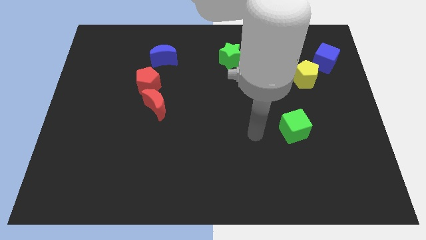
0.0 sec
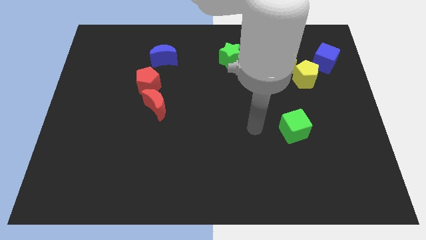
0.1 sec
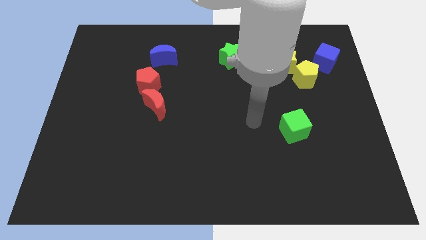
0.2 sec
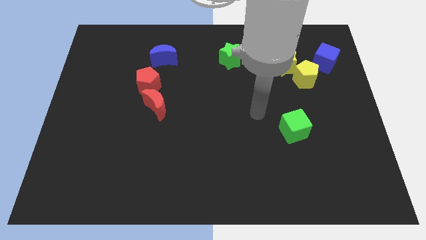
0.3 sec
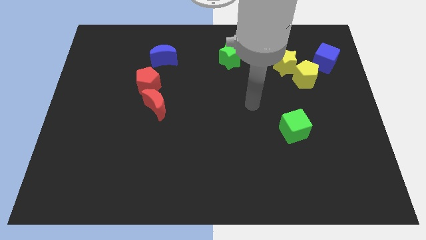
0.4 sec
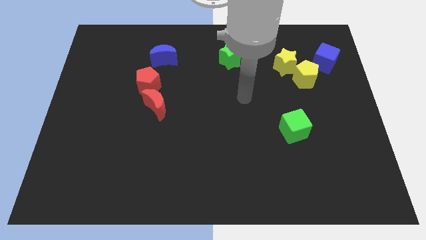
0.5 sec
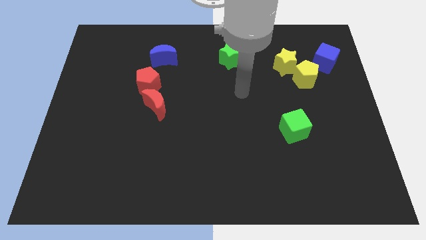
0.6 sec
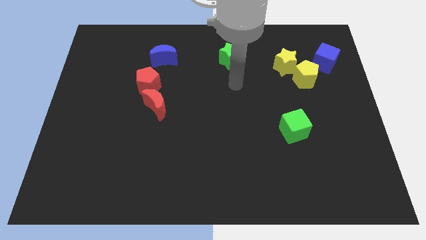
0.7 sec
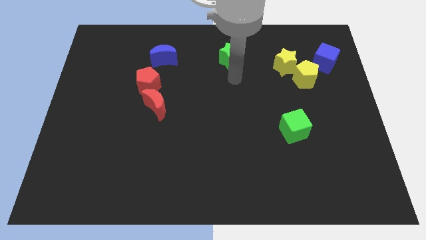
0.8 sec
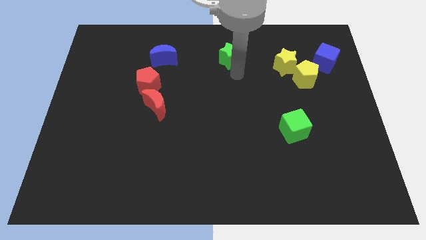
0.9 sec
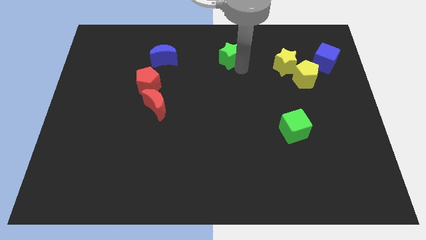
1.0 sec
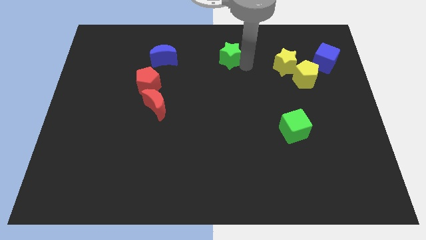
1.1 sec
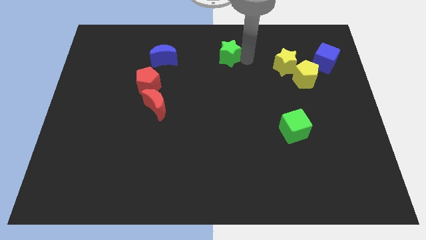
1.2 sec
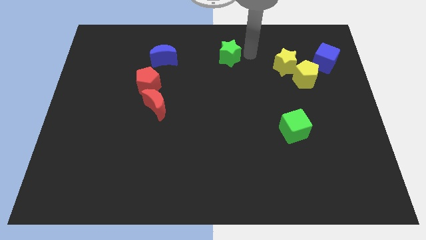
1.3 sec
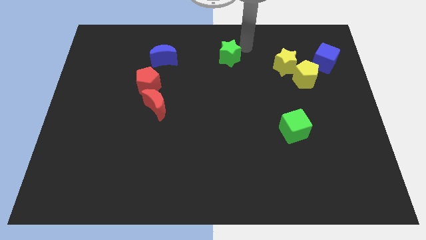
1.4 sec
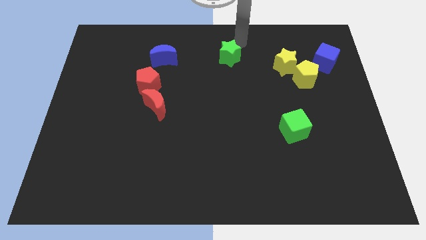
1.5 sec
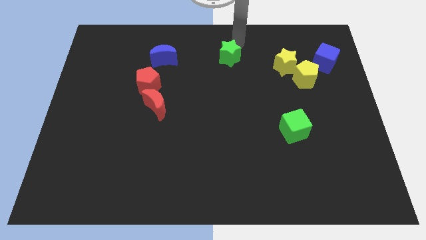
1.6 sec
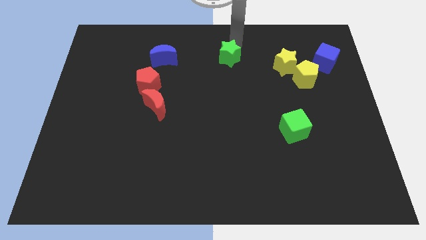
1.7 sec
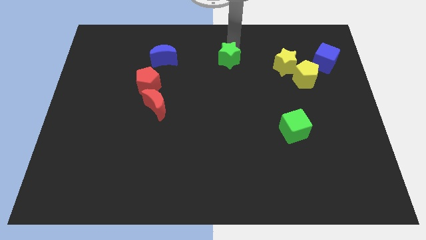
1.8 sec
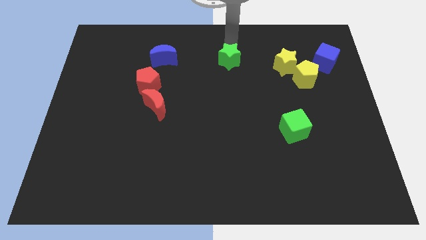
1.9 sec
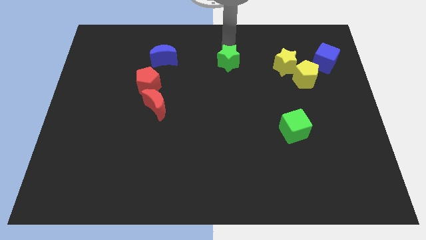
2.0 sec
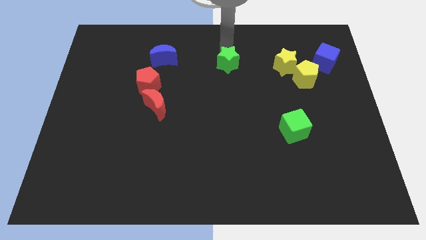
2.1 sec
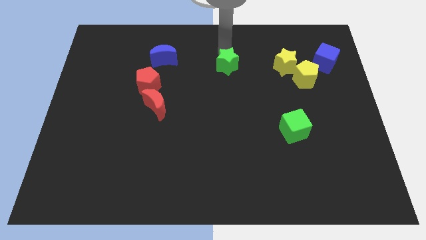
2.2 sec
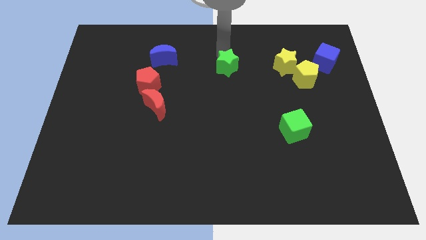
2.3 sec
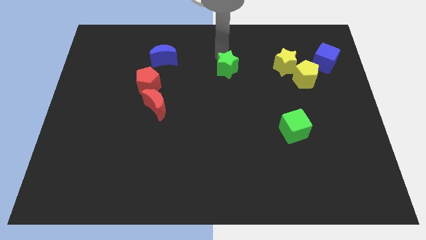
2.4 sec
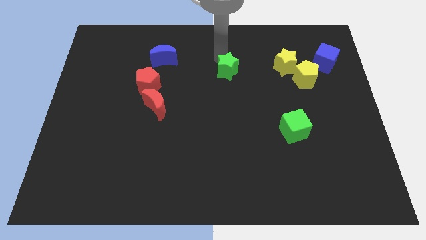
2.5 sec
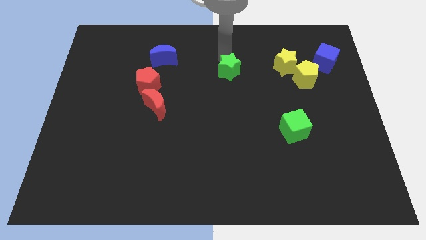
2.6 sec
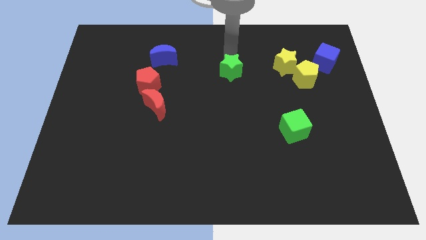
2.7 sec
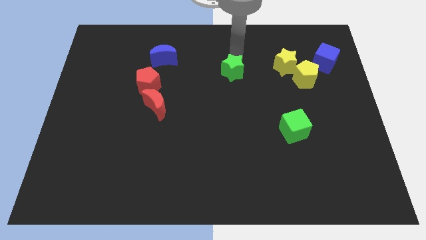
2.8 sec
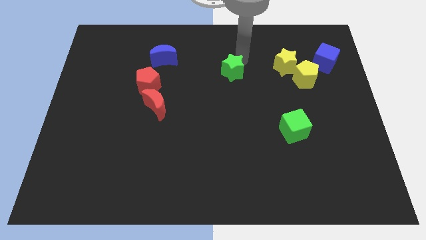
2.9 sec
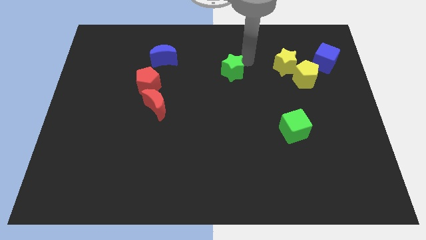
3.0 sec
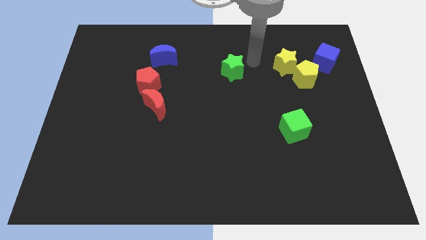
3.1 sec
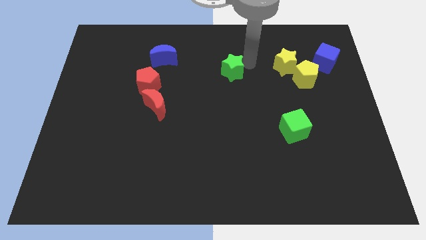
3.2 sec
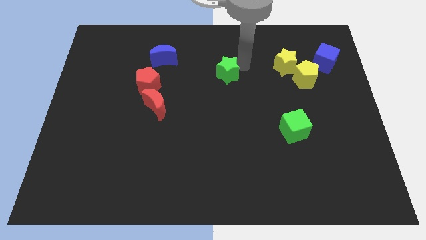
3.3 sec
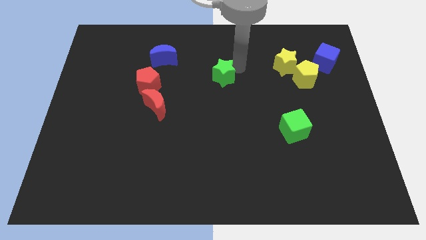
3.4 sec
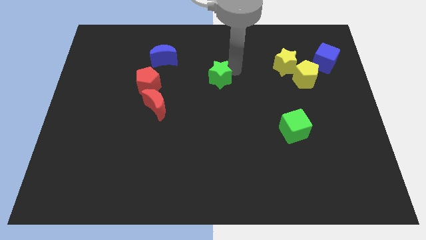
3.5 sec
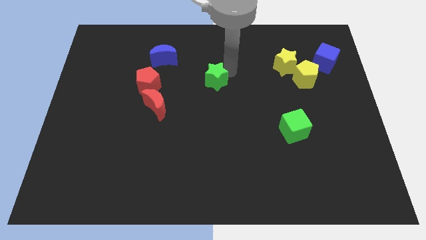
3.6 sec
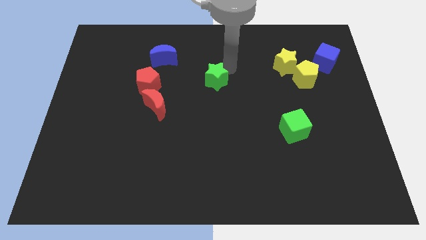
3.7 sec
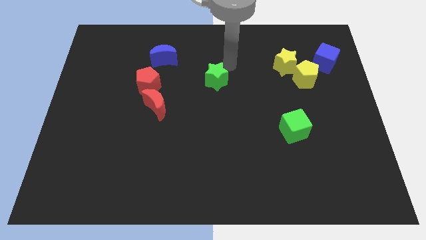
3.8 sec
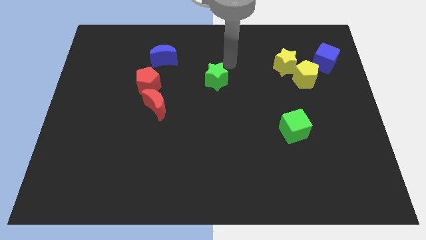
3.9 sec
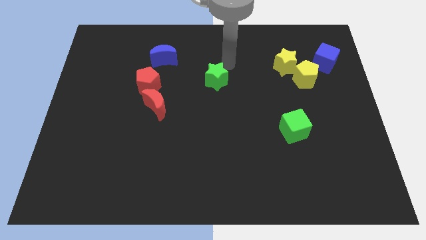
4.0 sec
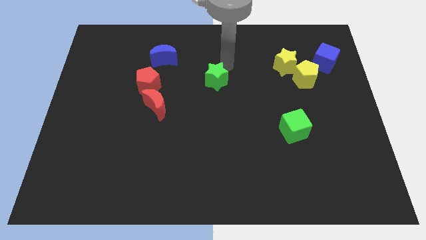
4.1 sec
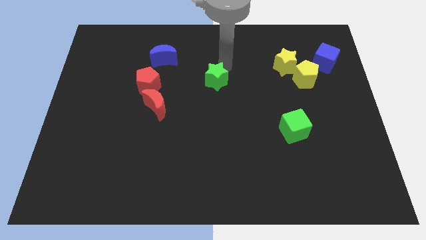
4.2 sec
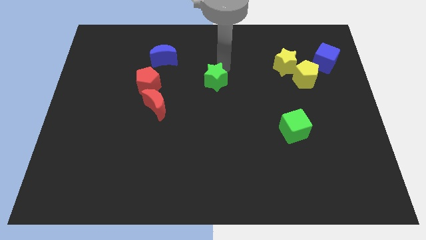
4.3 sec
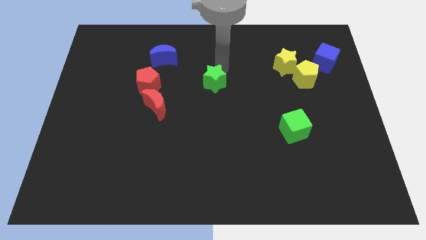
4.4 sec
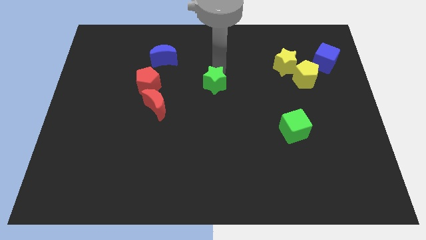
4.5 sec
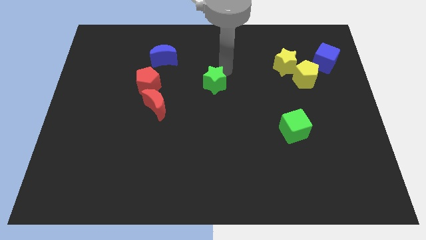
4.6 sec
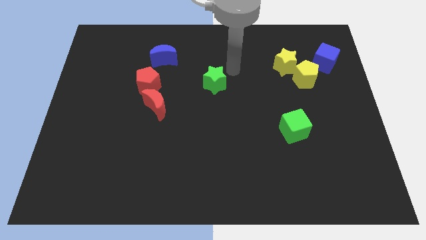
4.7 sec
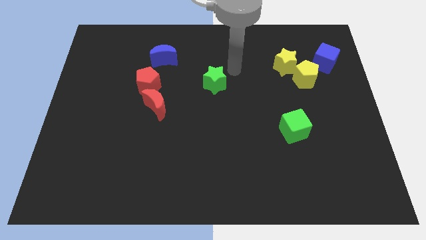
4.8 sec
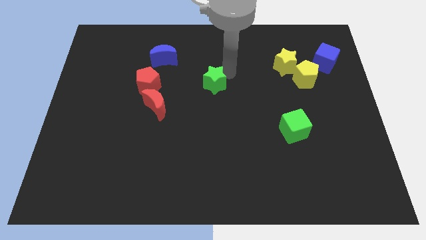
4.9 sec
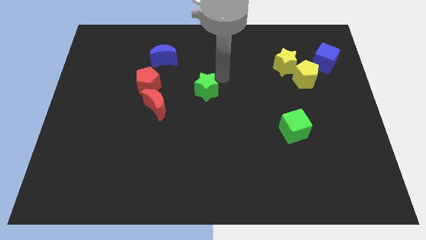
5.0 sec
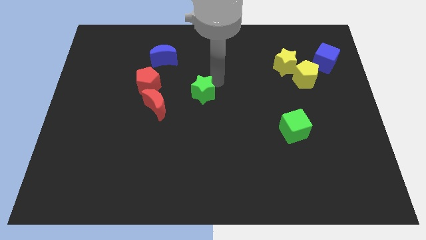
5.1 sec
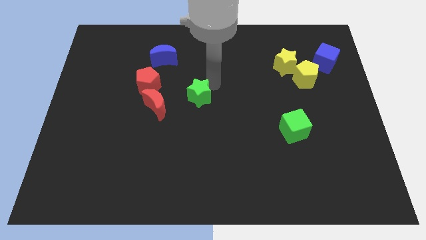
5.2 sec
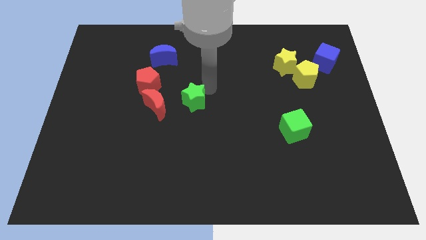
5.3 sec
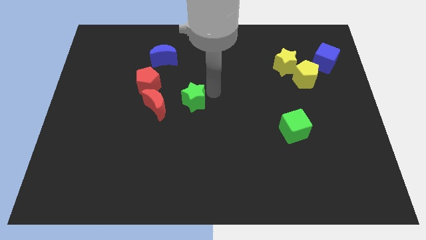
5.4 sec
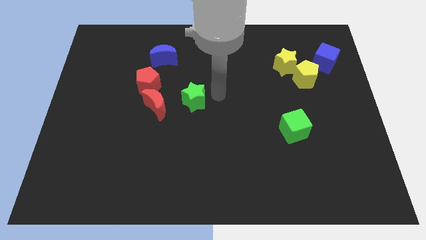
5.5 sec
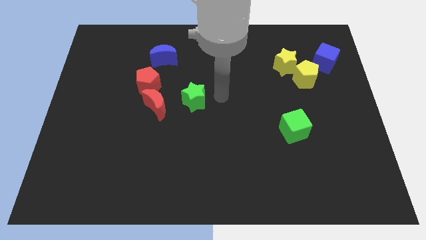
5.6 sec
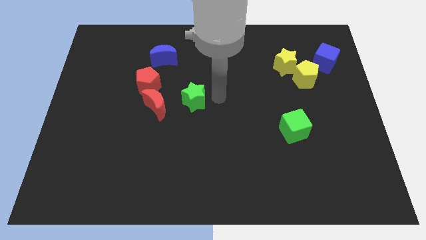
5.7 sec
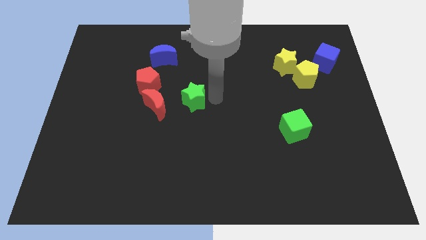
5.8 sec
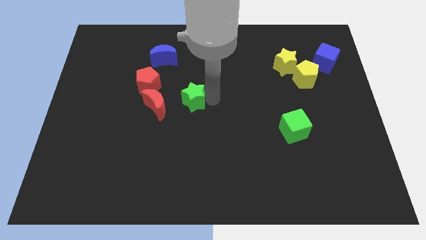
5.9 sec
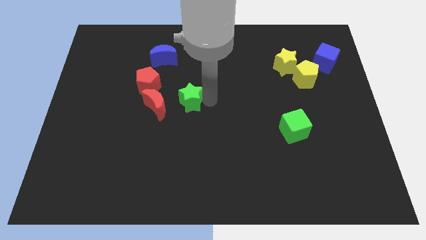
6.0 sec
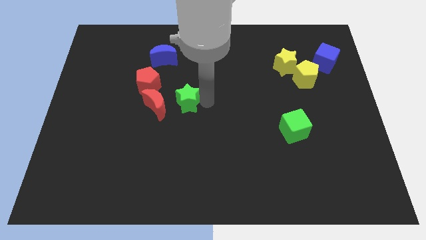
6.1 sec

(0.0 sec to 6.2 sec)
slide the green star to the bottom right side of the red pentagon

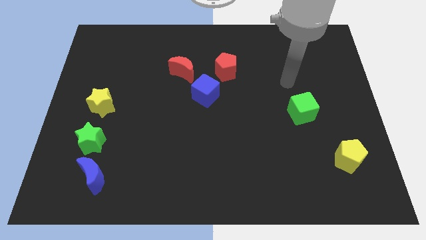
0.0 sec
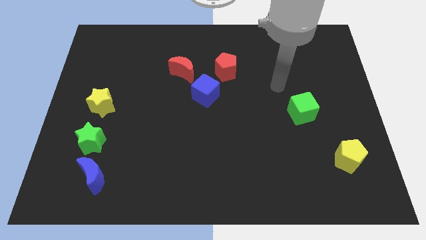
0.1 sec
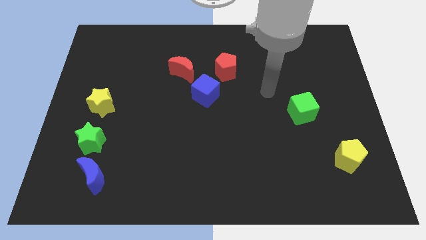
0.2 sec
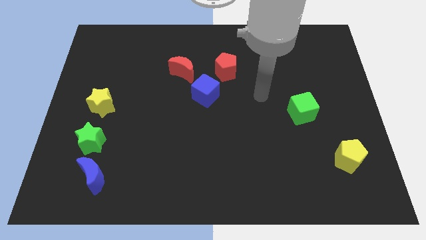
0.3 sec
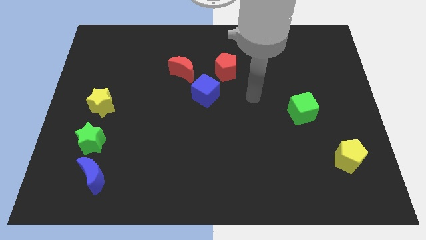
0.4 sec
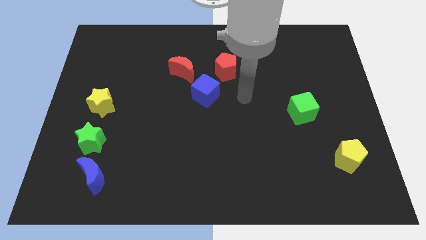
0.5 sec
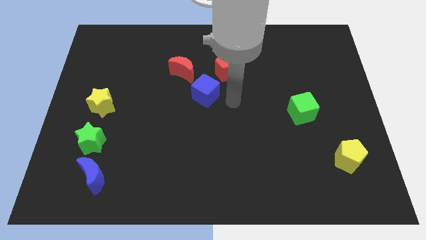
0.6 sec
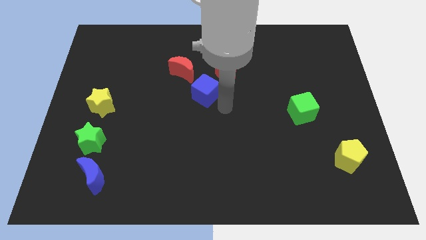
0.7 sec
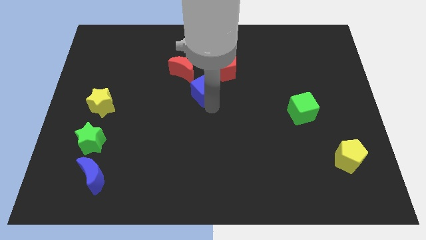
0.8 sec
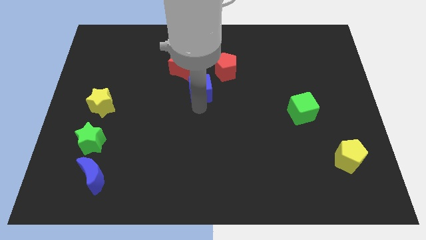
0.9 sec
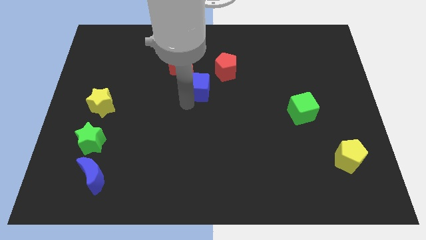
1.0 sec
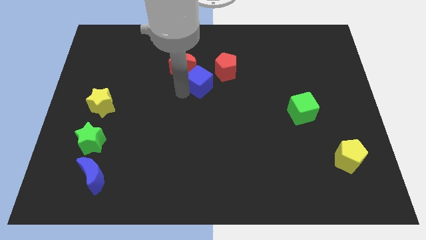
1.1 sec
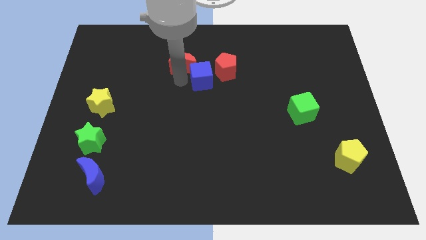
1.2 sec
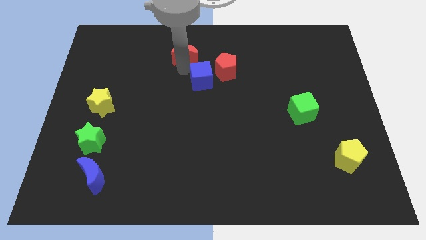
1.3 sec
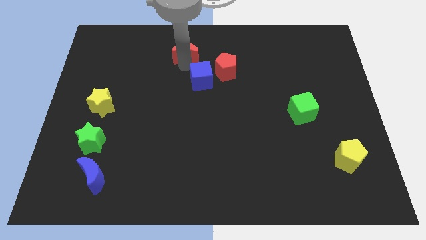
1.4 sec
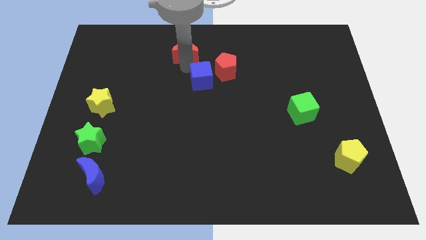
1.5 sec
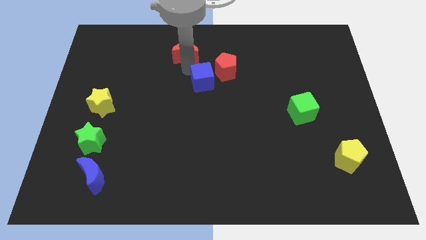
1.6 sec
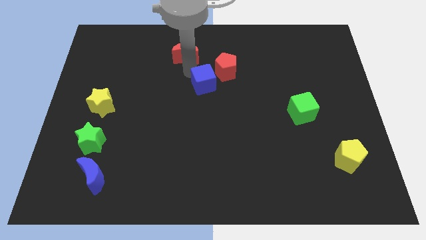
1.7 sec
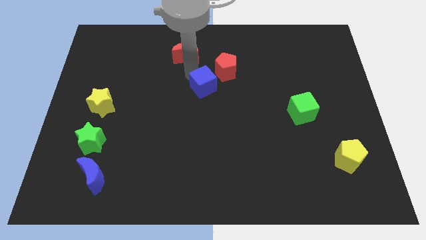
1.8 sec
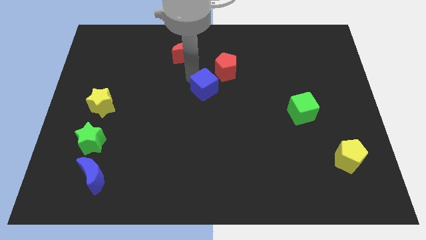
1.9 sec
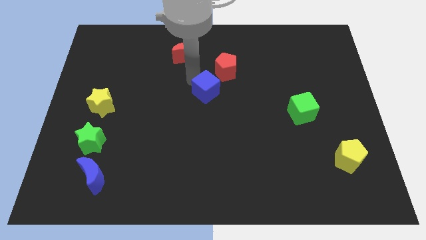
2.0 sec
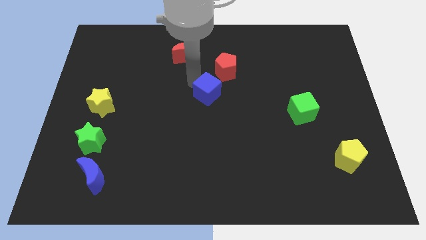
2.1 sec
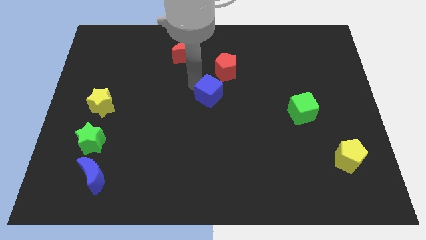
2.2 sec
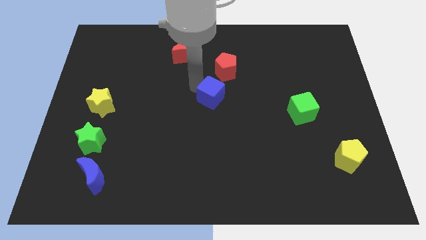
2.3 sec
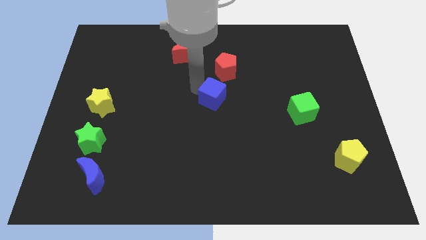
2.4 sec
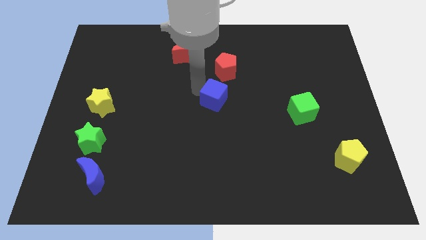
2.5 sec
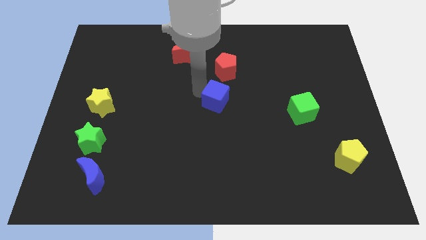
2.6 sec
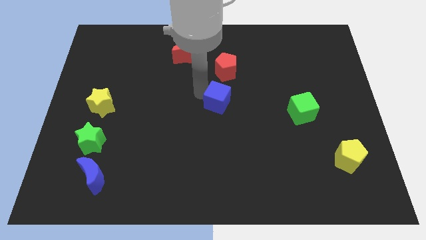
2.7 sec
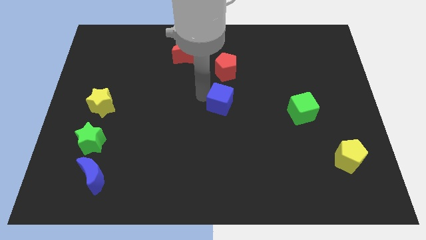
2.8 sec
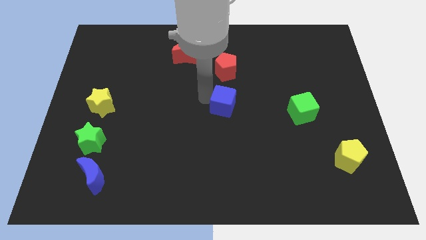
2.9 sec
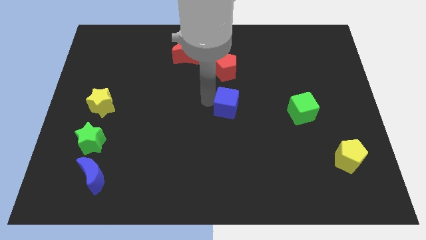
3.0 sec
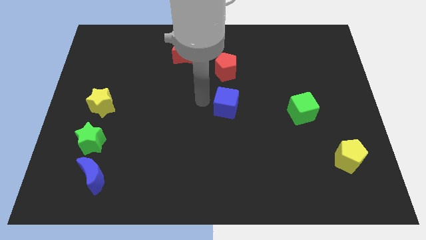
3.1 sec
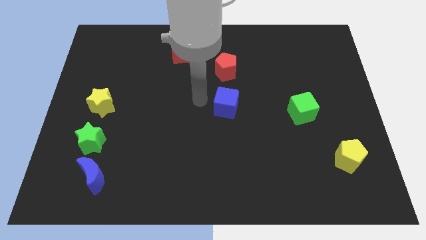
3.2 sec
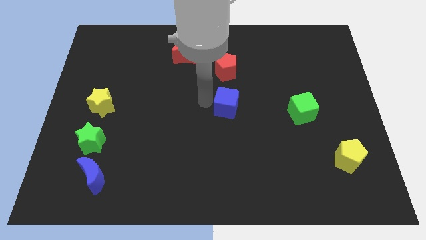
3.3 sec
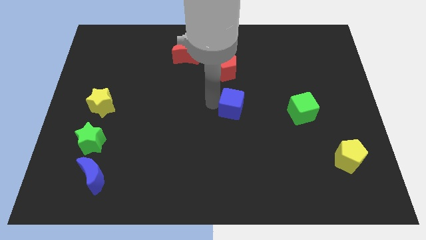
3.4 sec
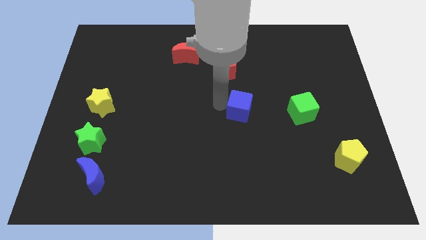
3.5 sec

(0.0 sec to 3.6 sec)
put the blue cube to the left of the green cube
